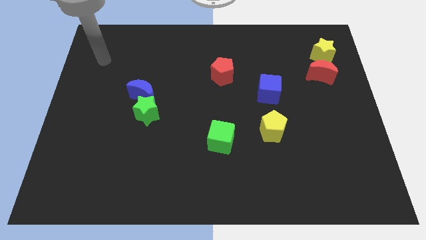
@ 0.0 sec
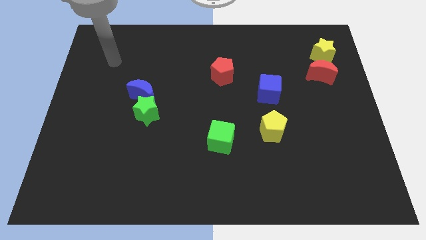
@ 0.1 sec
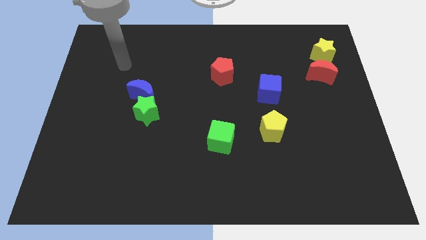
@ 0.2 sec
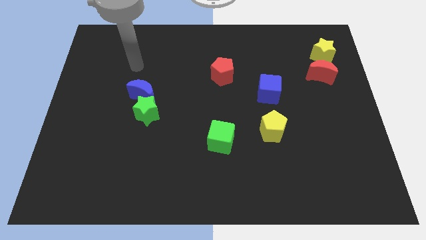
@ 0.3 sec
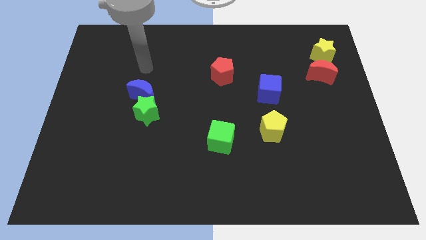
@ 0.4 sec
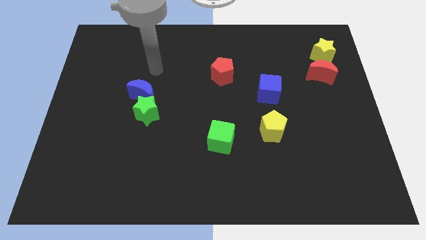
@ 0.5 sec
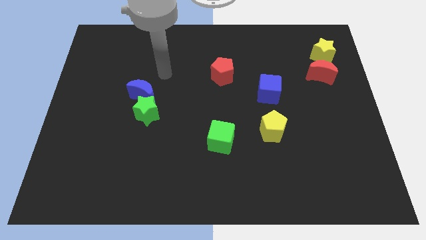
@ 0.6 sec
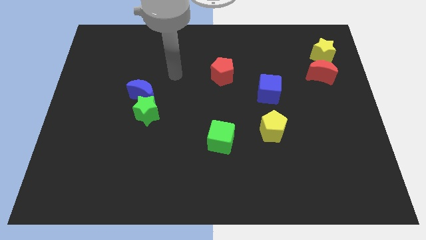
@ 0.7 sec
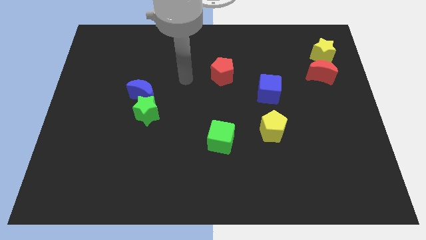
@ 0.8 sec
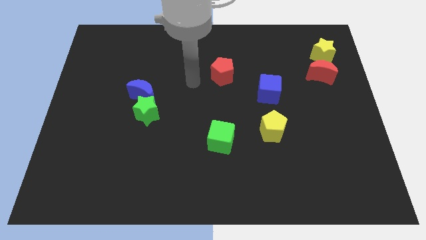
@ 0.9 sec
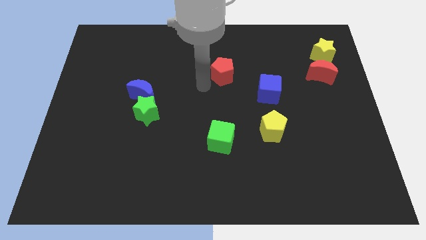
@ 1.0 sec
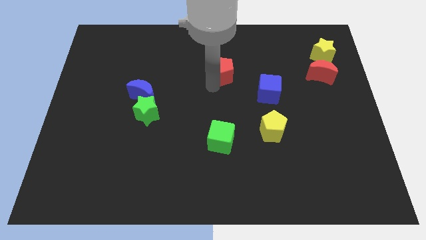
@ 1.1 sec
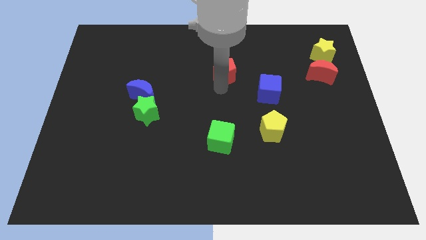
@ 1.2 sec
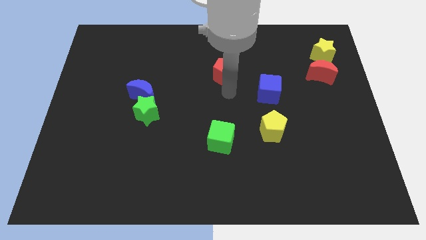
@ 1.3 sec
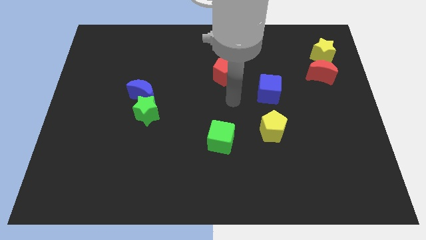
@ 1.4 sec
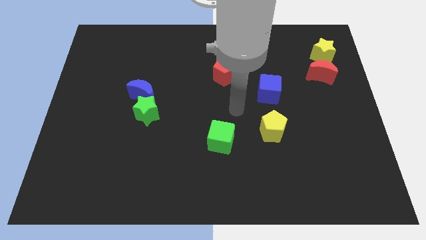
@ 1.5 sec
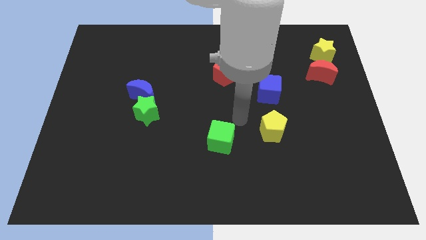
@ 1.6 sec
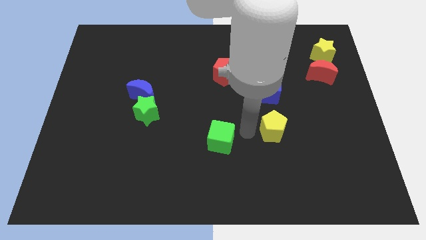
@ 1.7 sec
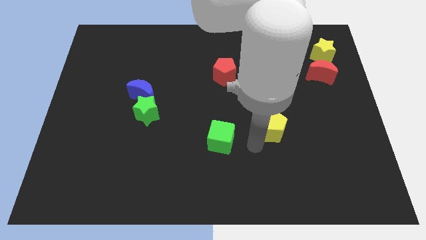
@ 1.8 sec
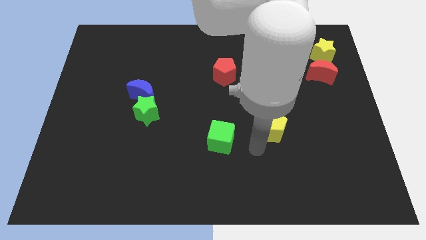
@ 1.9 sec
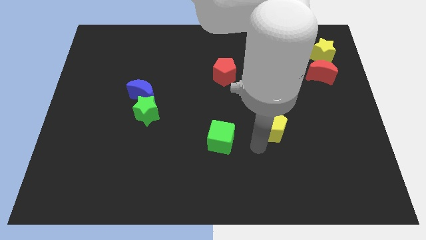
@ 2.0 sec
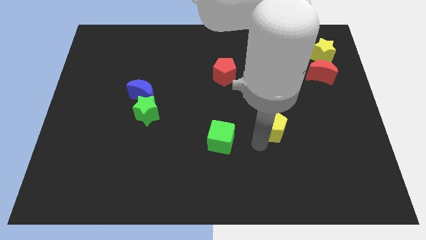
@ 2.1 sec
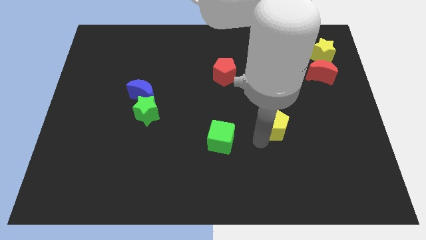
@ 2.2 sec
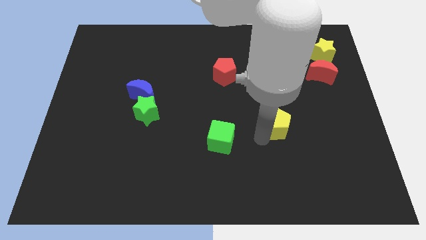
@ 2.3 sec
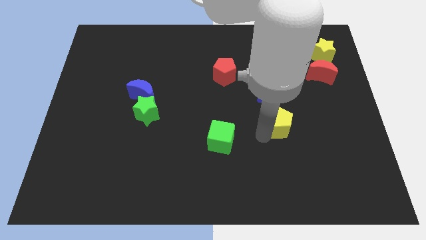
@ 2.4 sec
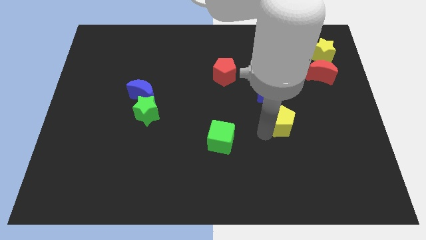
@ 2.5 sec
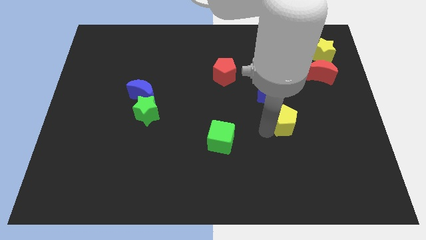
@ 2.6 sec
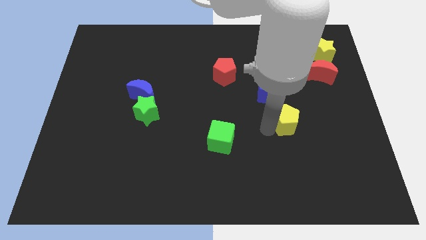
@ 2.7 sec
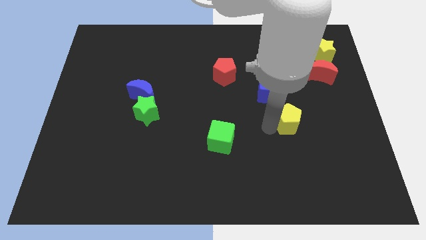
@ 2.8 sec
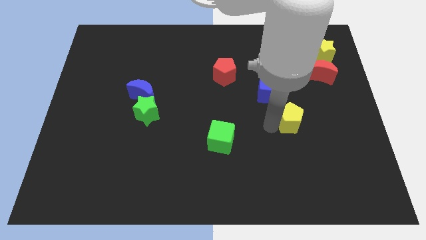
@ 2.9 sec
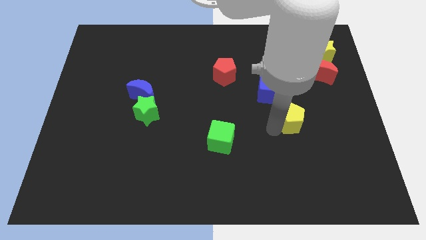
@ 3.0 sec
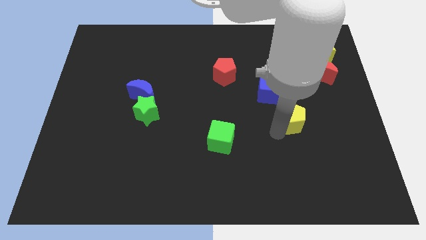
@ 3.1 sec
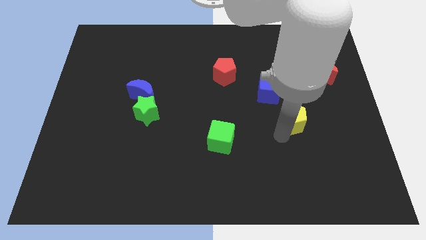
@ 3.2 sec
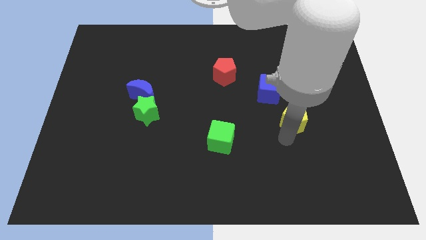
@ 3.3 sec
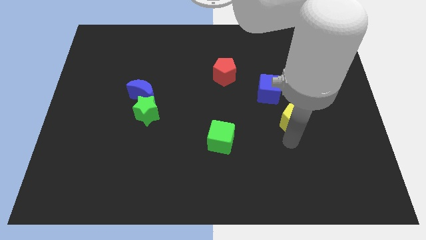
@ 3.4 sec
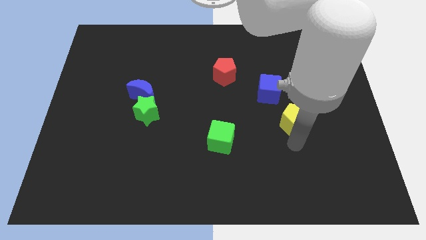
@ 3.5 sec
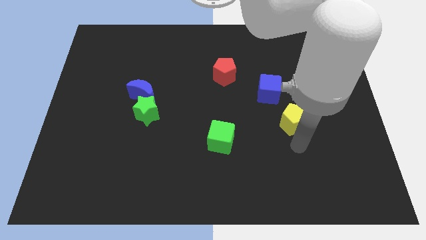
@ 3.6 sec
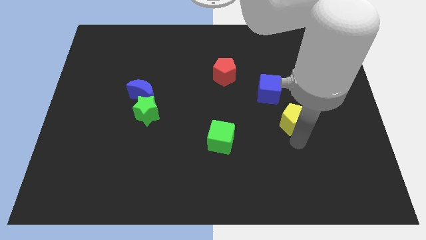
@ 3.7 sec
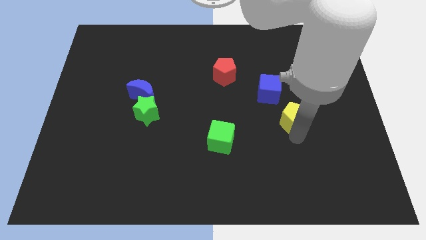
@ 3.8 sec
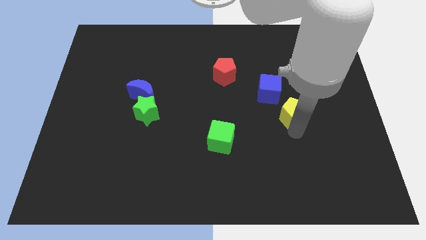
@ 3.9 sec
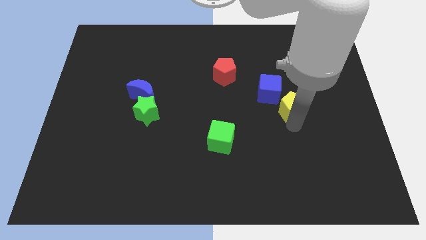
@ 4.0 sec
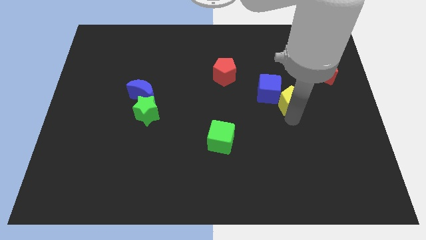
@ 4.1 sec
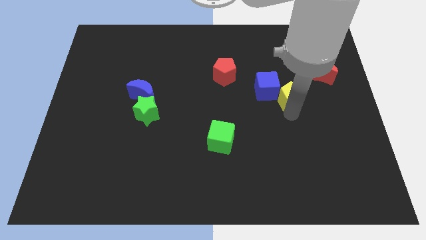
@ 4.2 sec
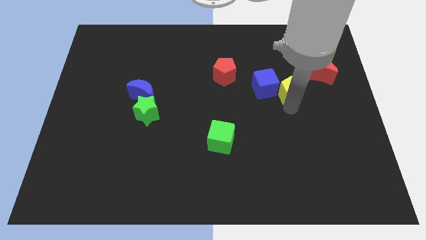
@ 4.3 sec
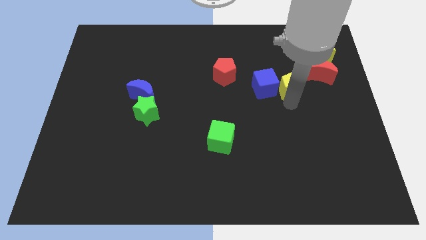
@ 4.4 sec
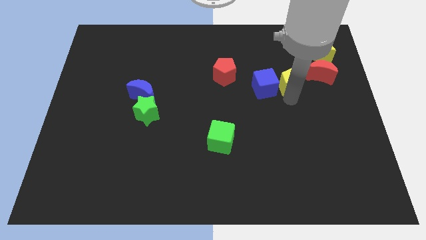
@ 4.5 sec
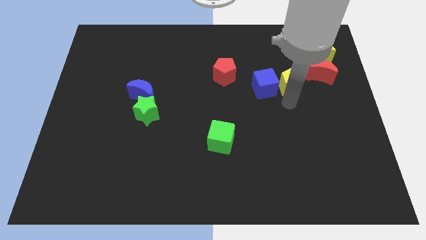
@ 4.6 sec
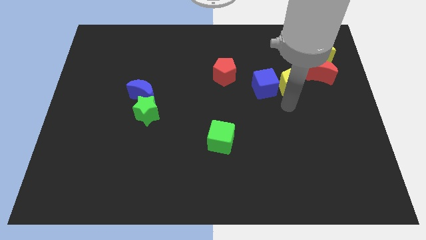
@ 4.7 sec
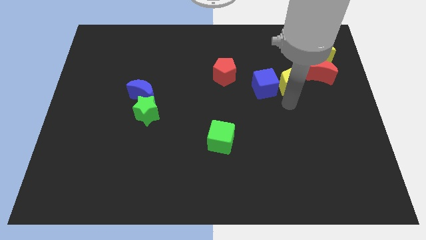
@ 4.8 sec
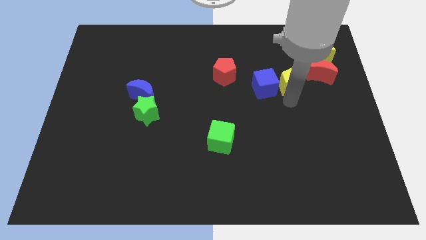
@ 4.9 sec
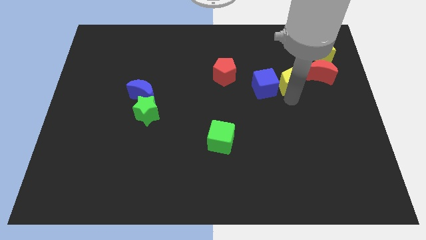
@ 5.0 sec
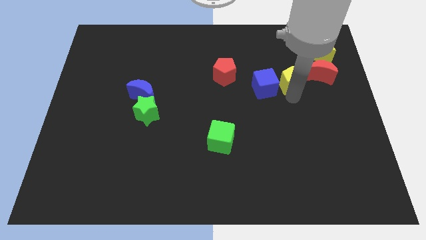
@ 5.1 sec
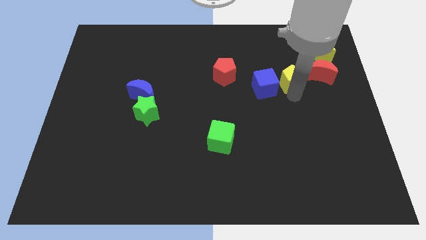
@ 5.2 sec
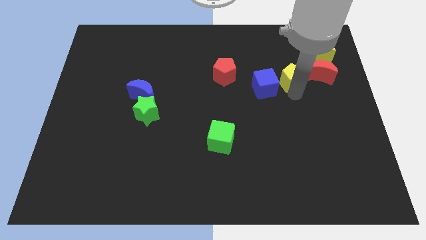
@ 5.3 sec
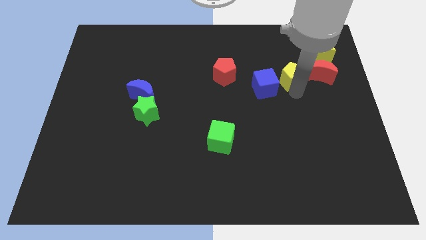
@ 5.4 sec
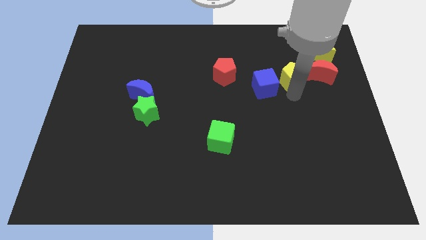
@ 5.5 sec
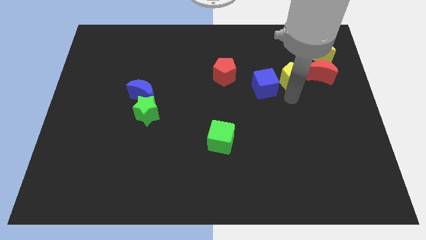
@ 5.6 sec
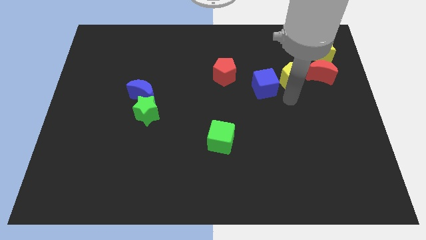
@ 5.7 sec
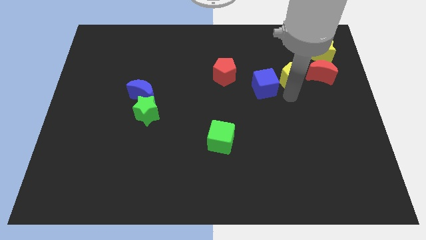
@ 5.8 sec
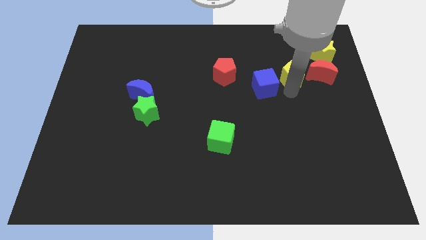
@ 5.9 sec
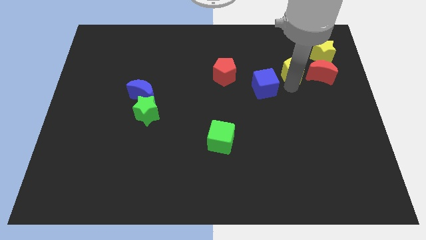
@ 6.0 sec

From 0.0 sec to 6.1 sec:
move the yellow pentagon diagonally up and to the left of the red moon

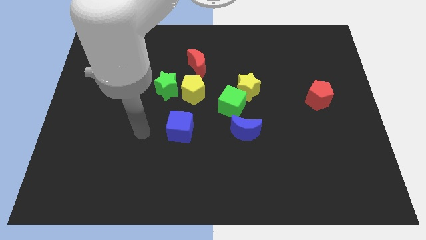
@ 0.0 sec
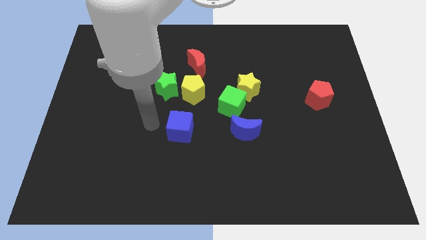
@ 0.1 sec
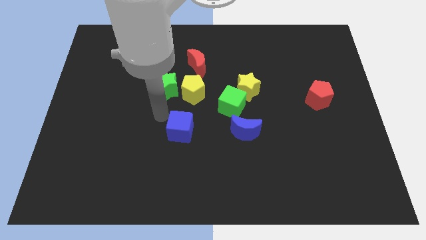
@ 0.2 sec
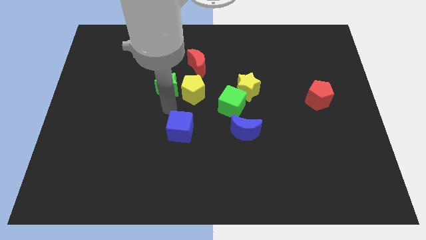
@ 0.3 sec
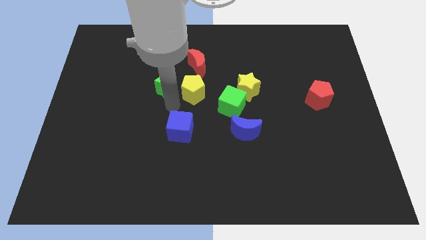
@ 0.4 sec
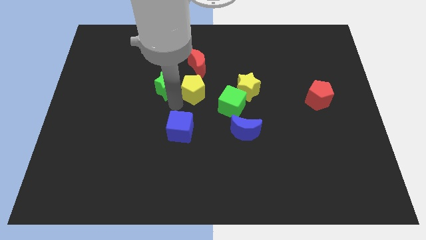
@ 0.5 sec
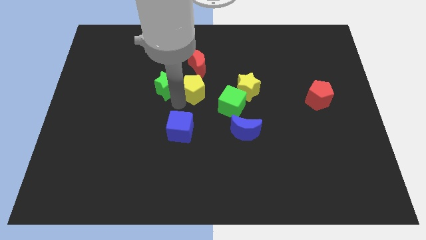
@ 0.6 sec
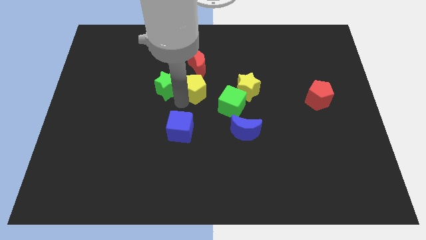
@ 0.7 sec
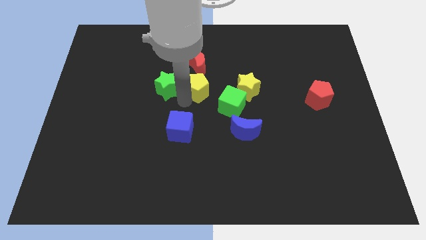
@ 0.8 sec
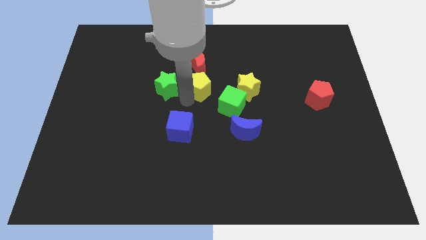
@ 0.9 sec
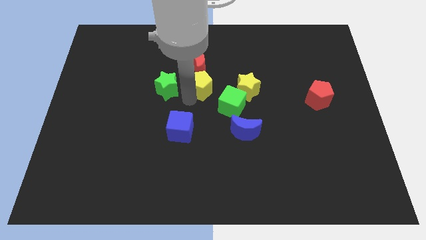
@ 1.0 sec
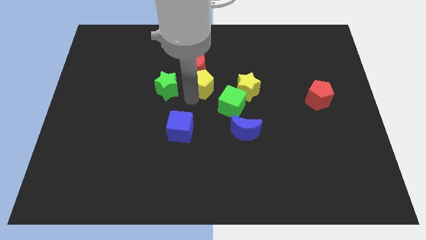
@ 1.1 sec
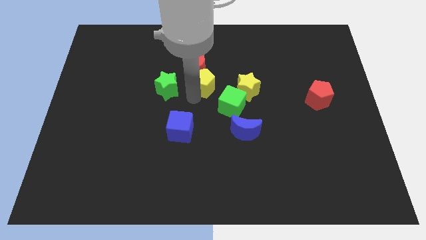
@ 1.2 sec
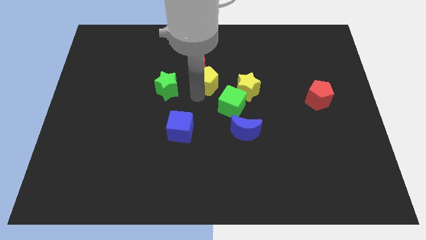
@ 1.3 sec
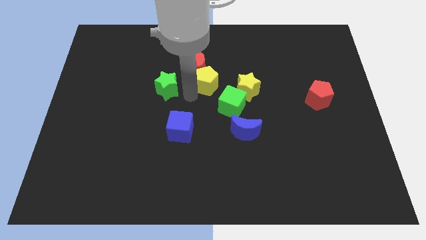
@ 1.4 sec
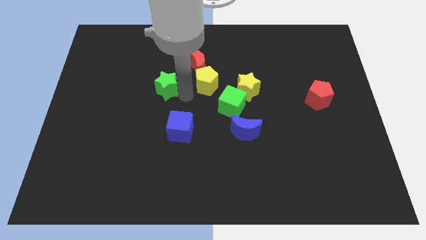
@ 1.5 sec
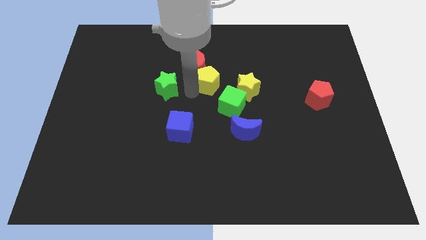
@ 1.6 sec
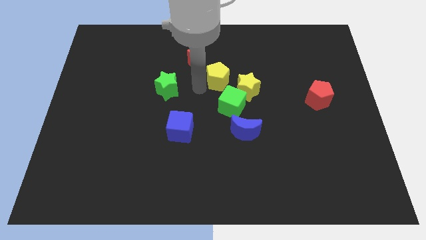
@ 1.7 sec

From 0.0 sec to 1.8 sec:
push the yellow pentagon to the right of the red moon
